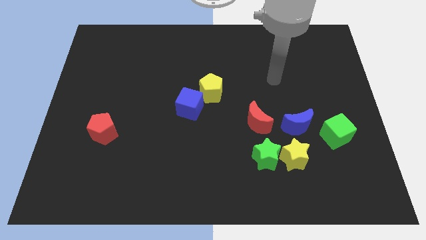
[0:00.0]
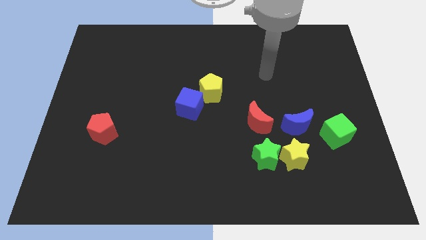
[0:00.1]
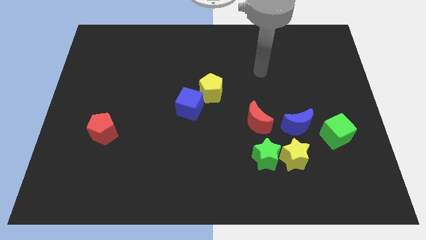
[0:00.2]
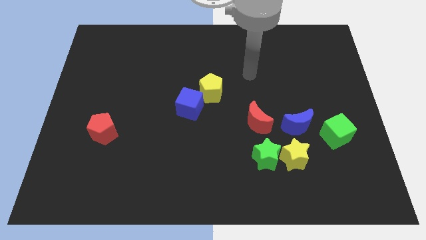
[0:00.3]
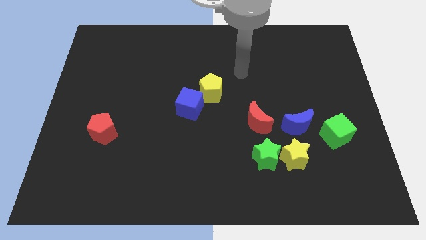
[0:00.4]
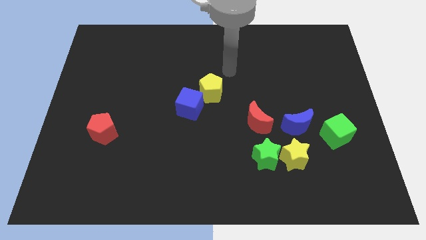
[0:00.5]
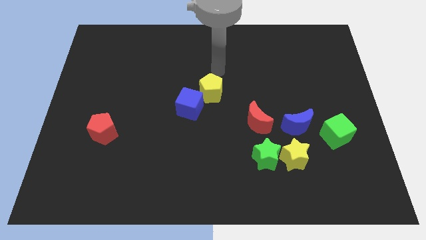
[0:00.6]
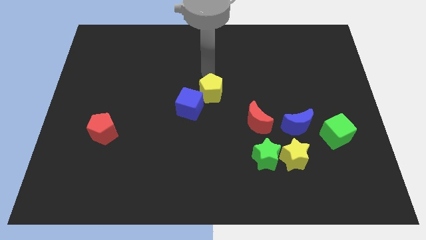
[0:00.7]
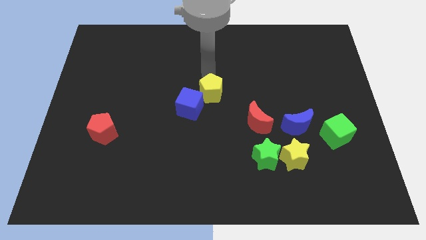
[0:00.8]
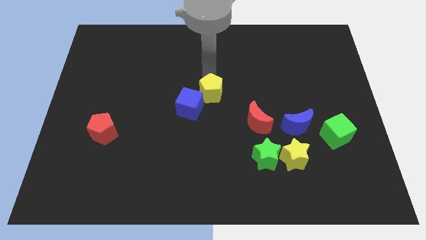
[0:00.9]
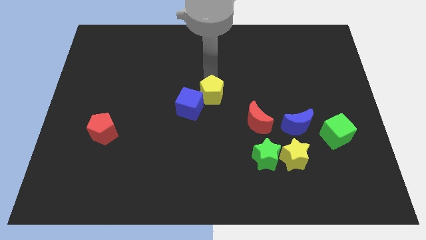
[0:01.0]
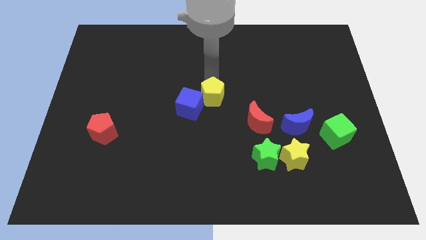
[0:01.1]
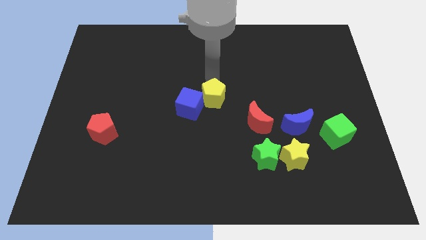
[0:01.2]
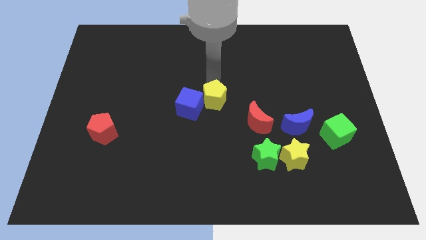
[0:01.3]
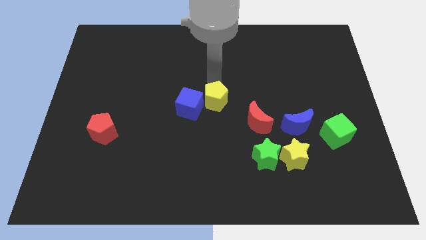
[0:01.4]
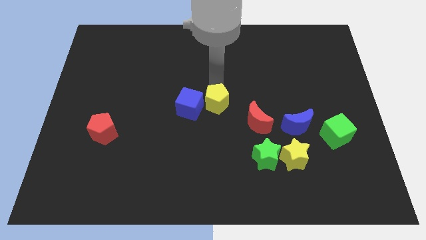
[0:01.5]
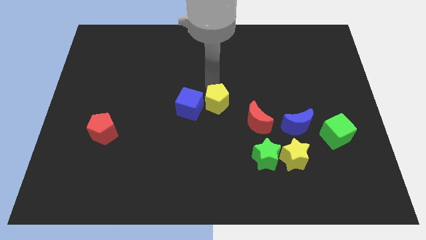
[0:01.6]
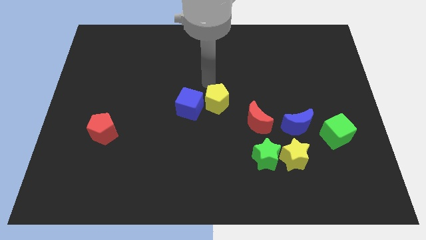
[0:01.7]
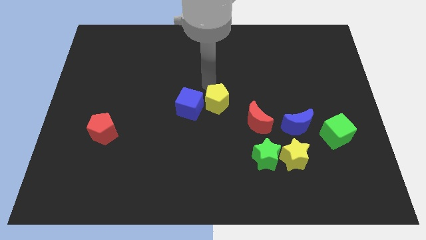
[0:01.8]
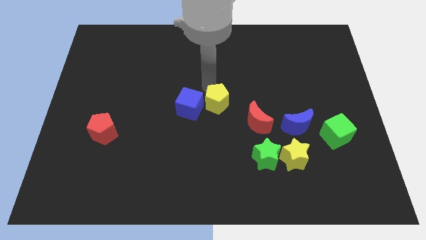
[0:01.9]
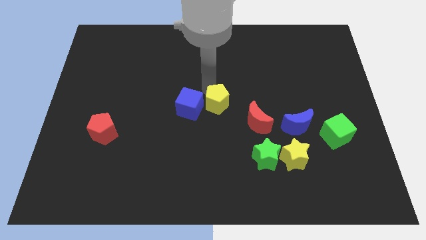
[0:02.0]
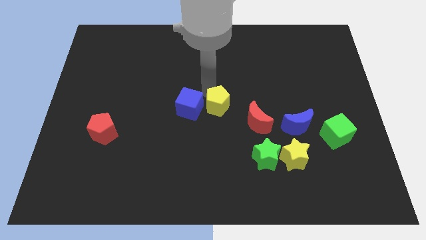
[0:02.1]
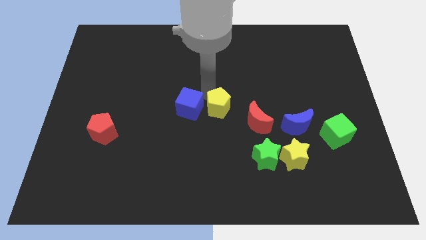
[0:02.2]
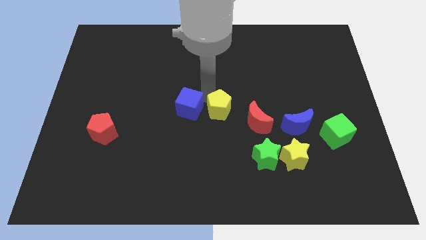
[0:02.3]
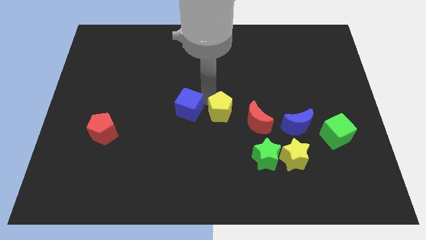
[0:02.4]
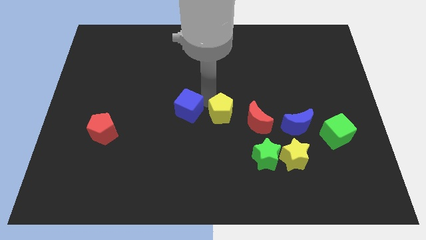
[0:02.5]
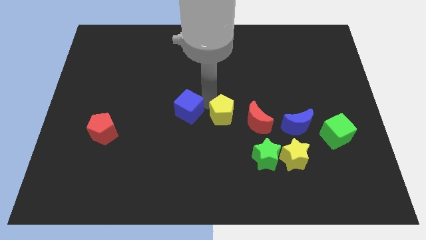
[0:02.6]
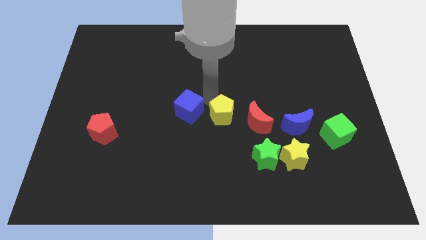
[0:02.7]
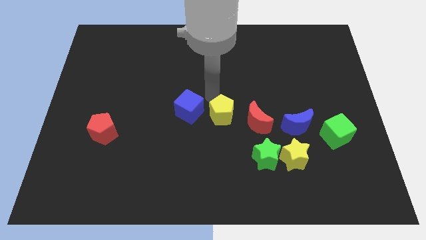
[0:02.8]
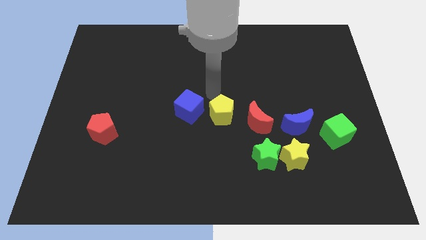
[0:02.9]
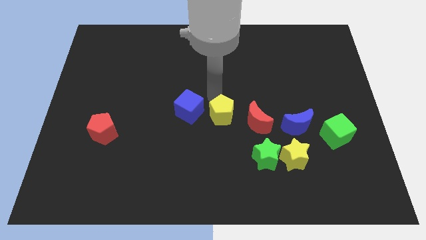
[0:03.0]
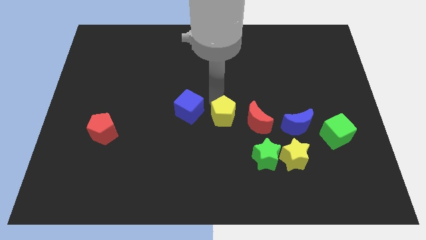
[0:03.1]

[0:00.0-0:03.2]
move the yellow pentagon a little down and then right

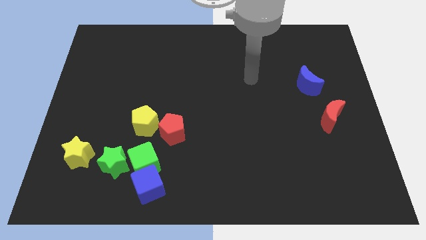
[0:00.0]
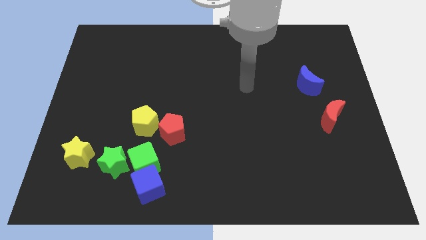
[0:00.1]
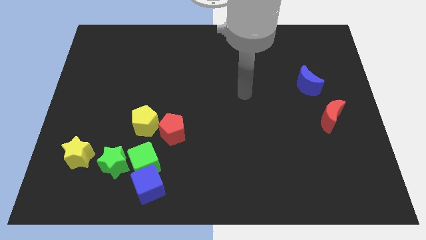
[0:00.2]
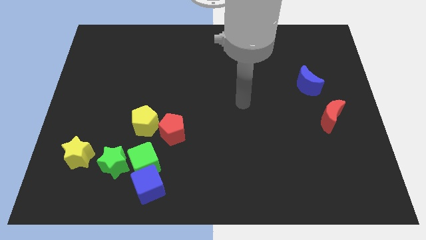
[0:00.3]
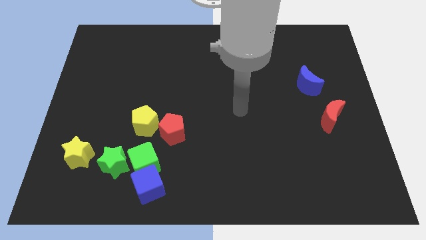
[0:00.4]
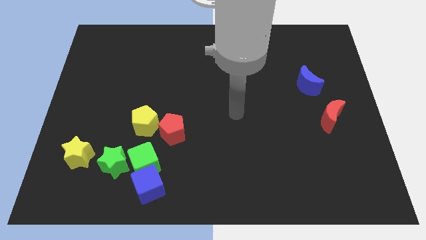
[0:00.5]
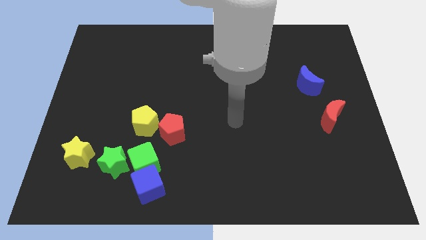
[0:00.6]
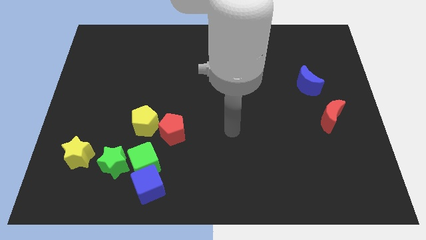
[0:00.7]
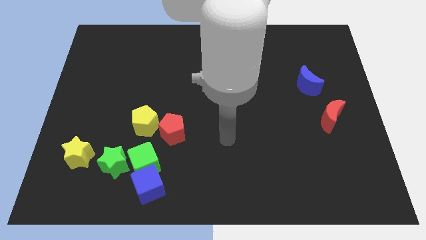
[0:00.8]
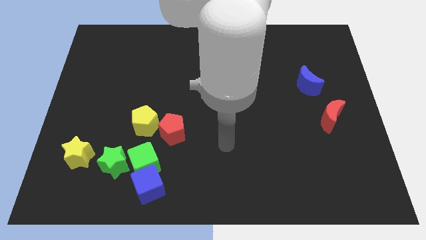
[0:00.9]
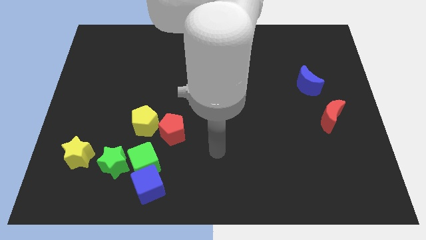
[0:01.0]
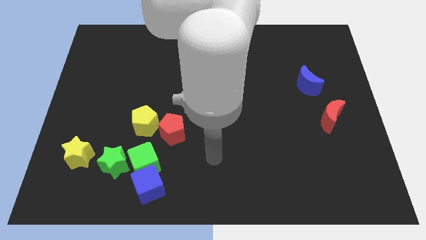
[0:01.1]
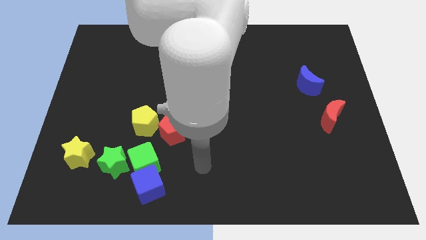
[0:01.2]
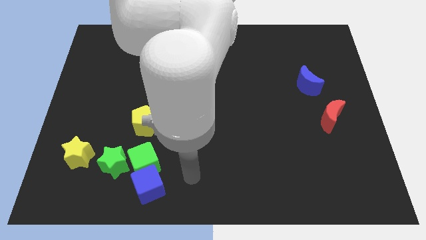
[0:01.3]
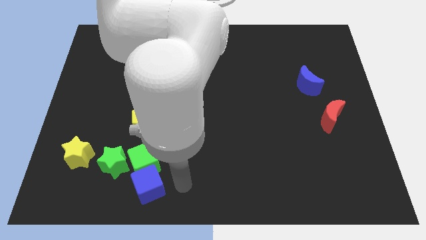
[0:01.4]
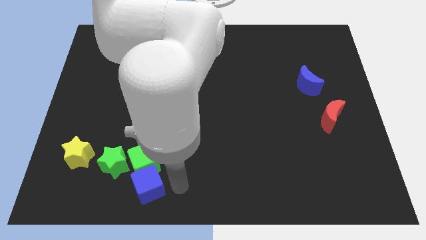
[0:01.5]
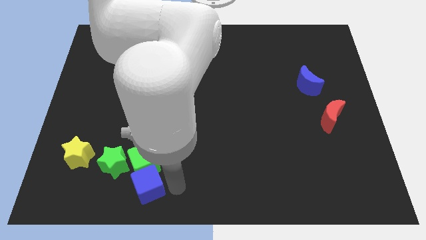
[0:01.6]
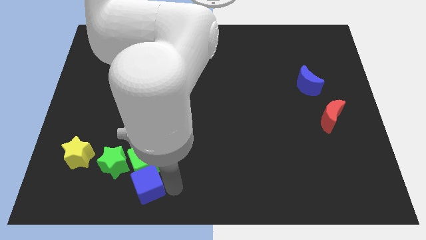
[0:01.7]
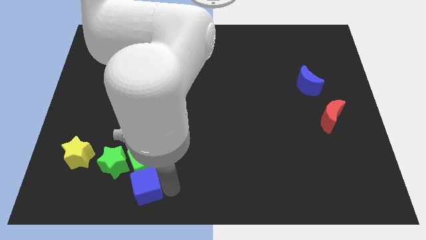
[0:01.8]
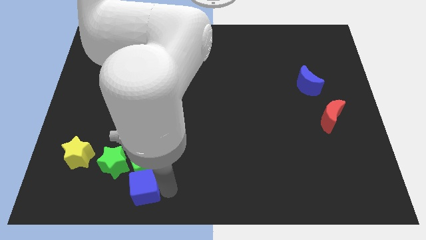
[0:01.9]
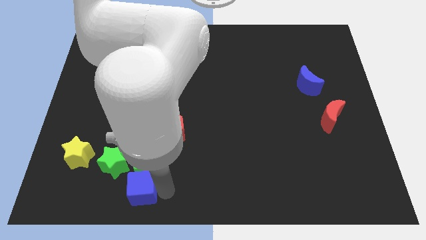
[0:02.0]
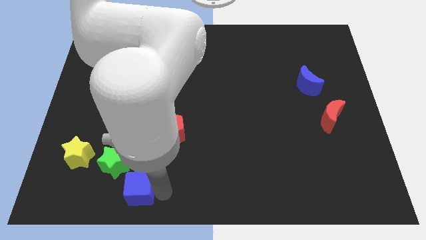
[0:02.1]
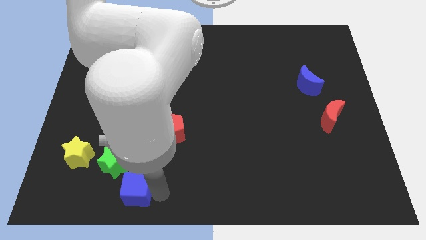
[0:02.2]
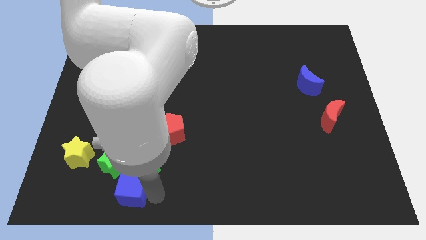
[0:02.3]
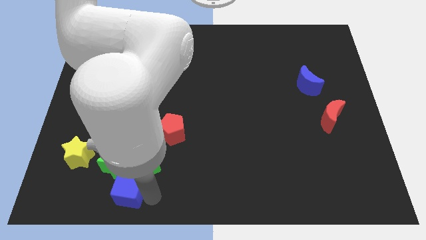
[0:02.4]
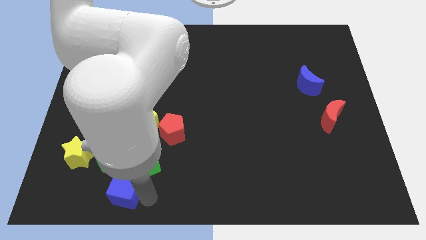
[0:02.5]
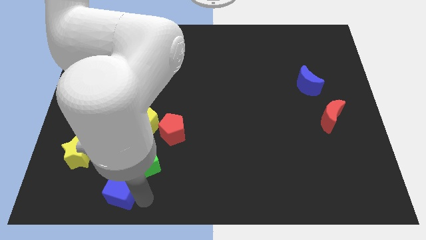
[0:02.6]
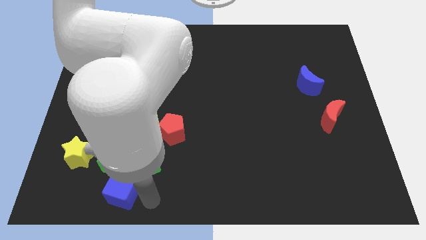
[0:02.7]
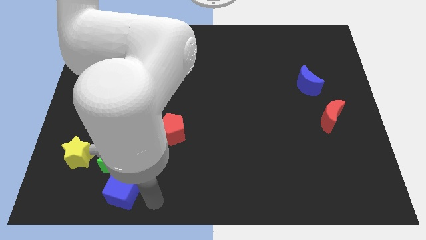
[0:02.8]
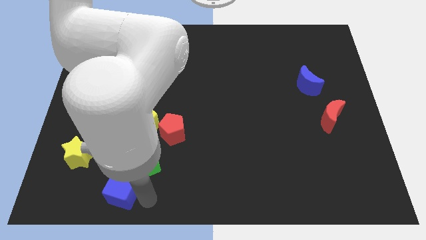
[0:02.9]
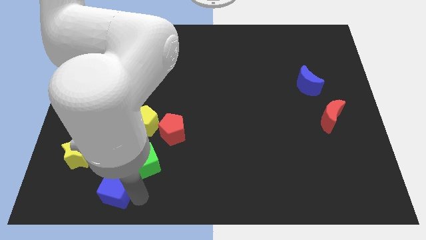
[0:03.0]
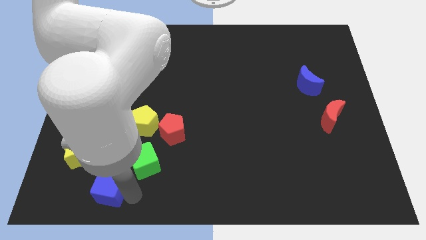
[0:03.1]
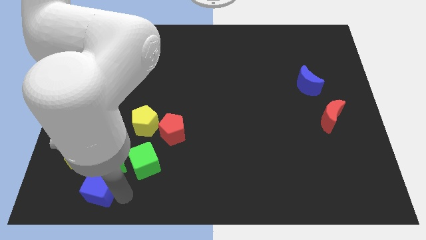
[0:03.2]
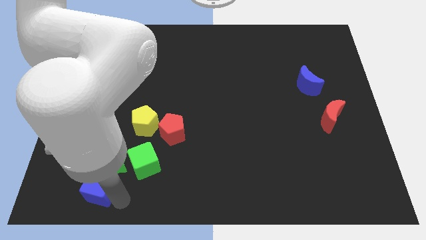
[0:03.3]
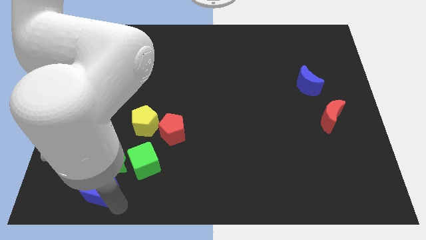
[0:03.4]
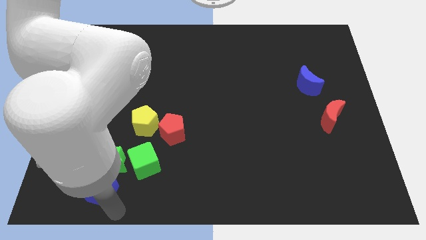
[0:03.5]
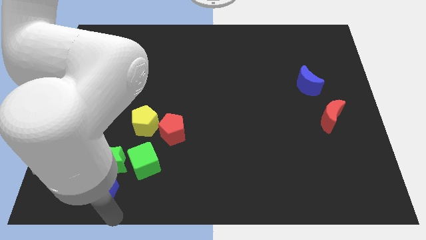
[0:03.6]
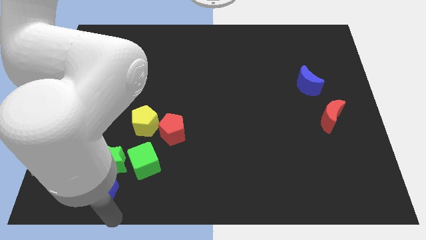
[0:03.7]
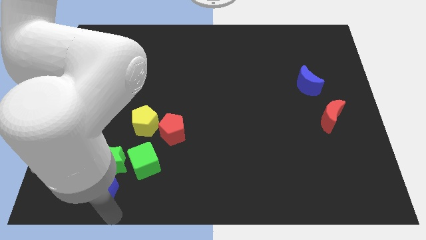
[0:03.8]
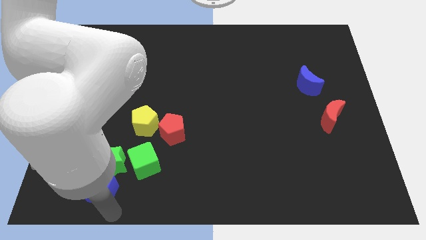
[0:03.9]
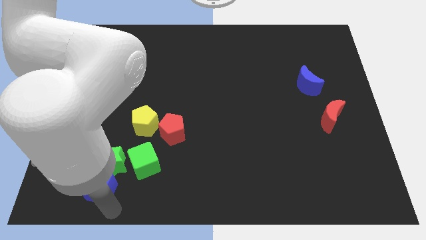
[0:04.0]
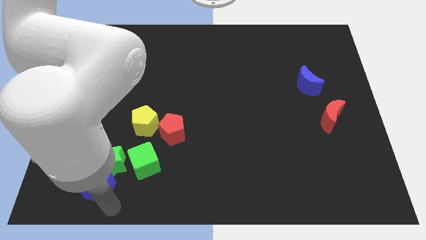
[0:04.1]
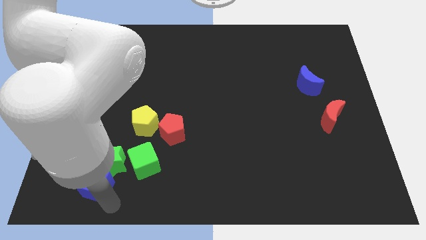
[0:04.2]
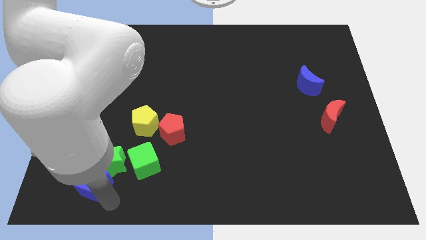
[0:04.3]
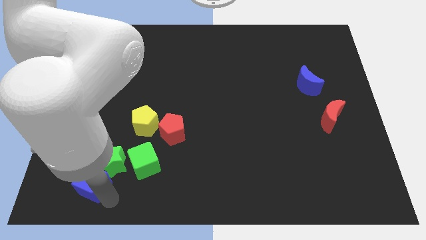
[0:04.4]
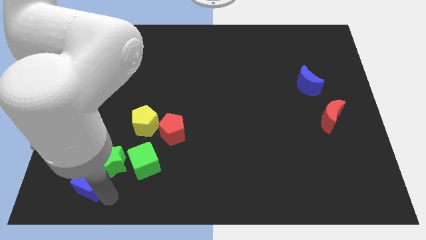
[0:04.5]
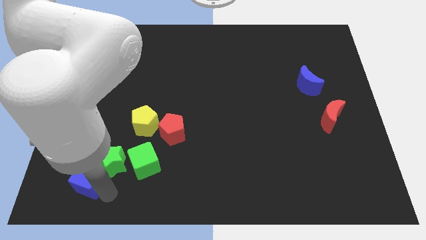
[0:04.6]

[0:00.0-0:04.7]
push the blue cube a little upwards and then left

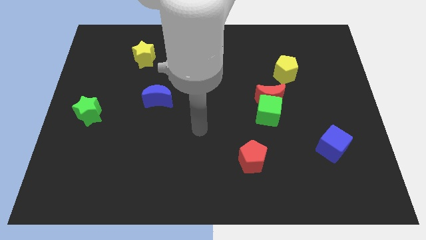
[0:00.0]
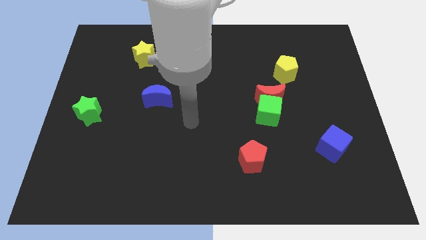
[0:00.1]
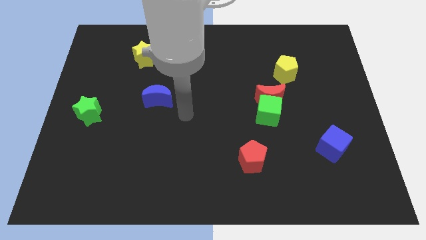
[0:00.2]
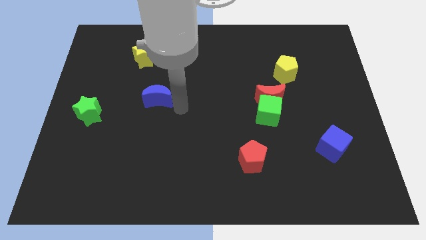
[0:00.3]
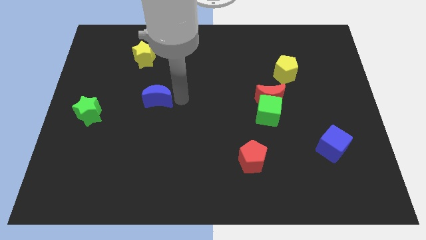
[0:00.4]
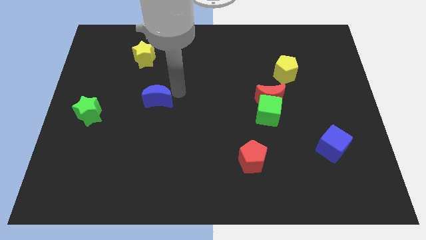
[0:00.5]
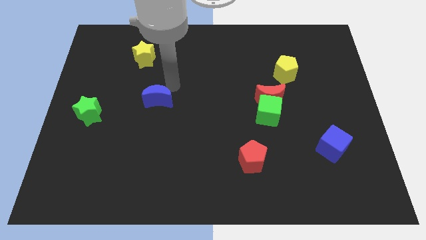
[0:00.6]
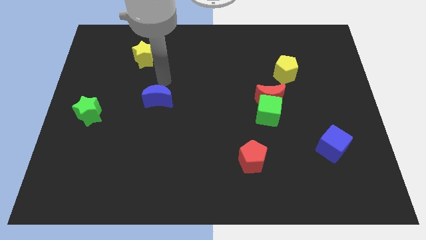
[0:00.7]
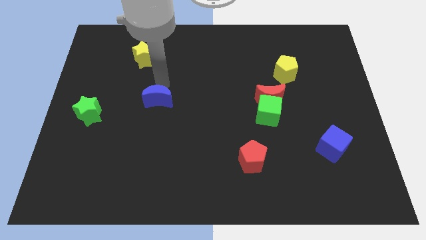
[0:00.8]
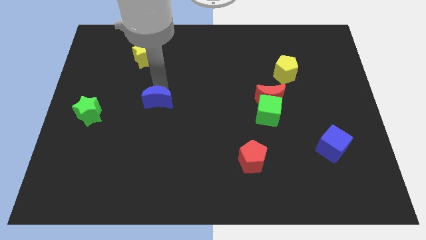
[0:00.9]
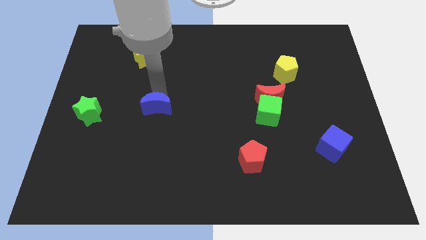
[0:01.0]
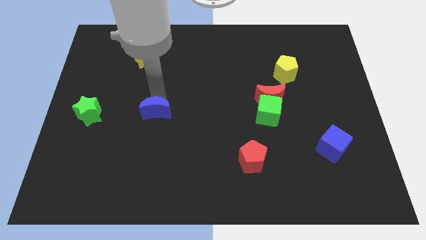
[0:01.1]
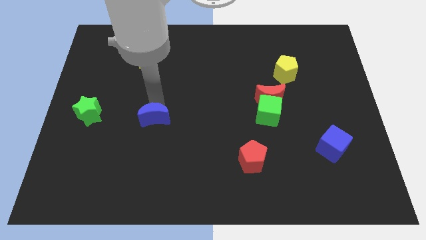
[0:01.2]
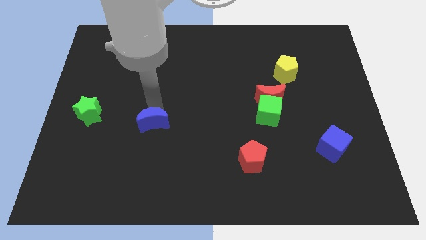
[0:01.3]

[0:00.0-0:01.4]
push the blue moon slightly down
